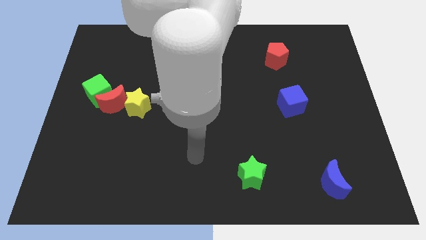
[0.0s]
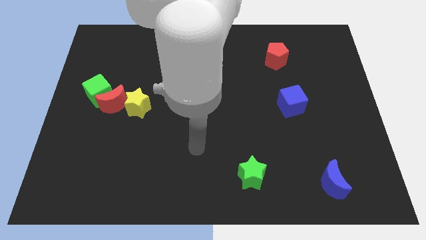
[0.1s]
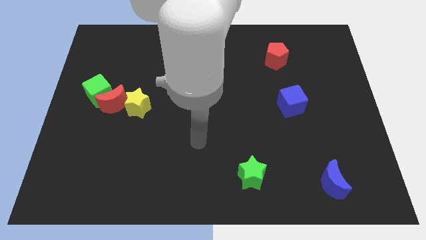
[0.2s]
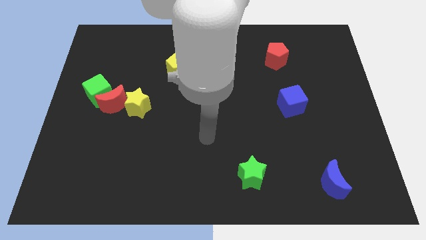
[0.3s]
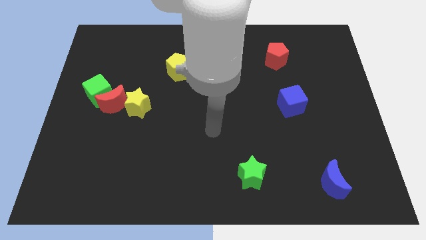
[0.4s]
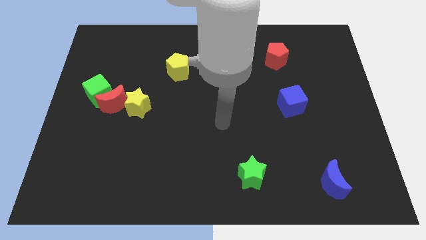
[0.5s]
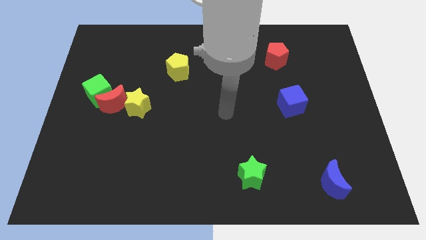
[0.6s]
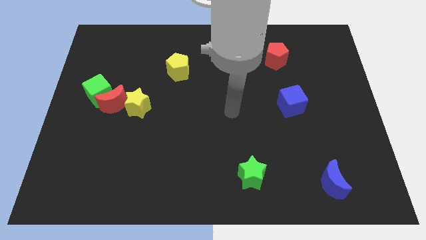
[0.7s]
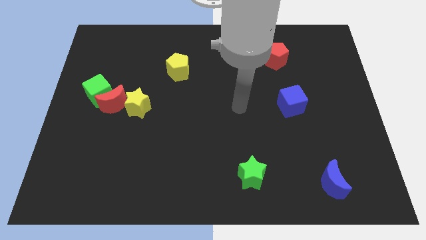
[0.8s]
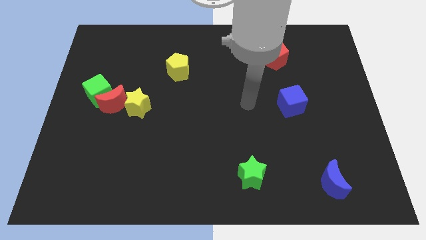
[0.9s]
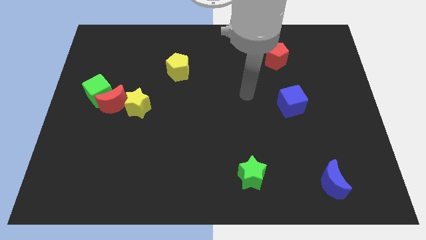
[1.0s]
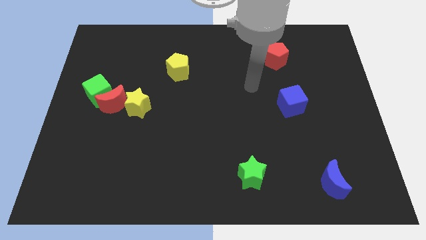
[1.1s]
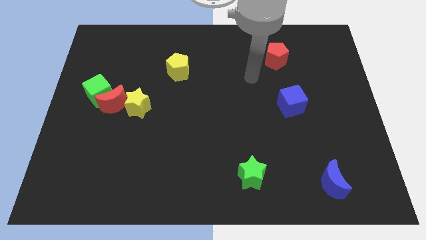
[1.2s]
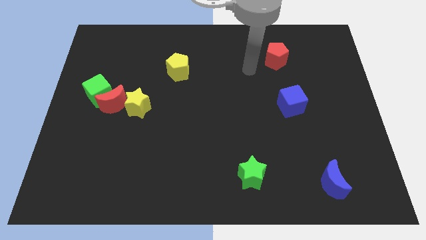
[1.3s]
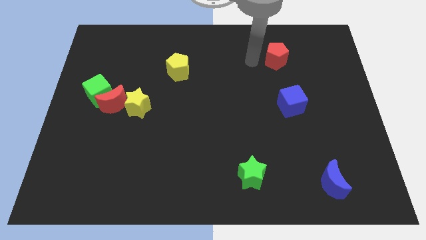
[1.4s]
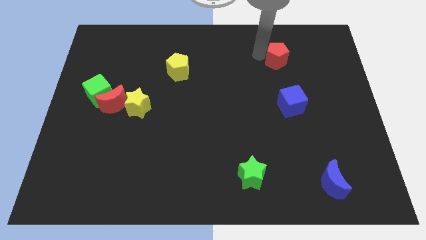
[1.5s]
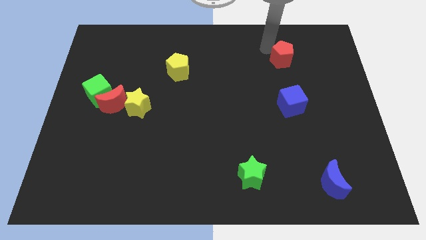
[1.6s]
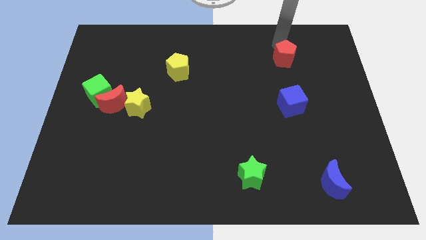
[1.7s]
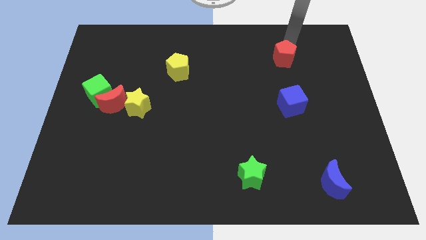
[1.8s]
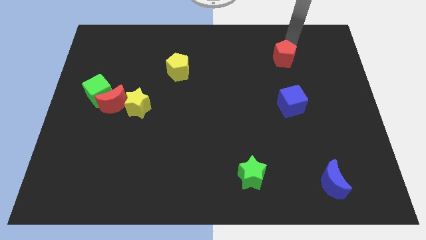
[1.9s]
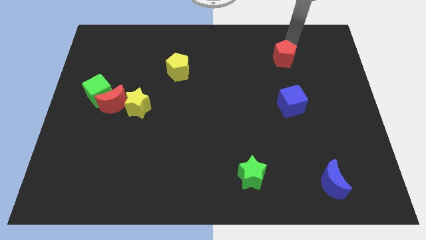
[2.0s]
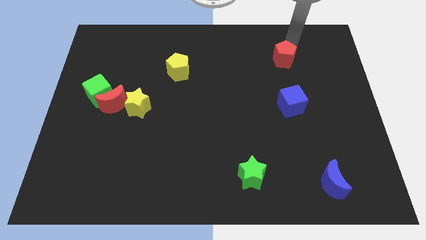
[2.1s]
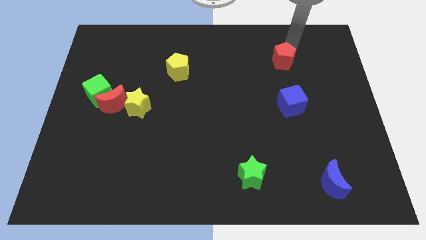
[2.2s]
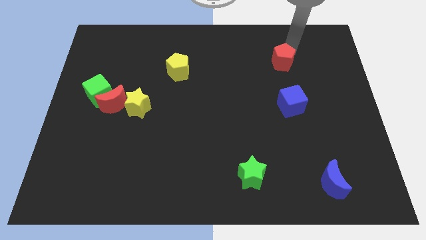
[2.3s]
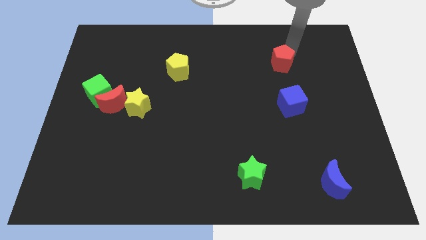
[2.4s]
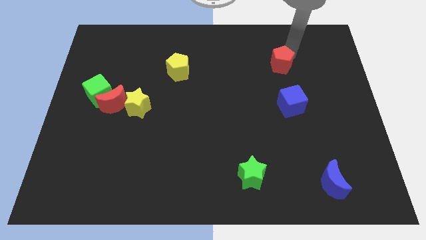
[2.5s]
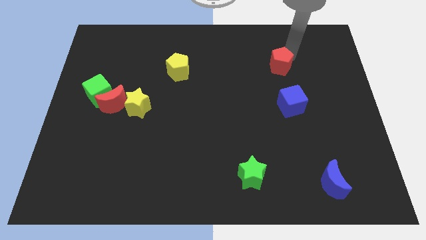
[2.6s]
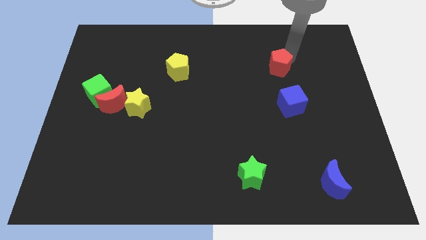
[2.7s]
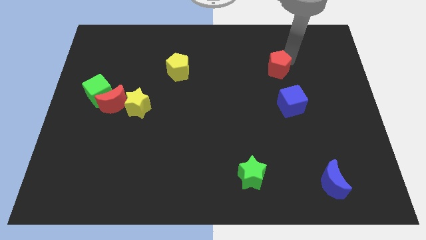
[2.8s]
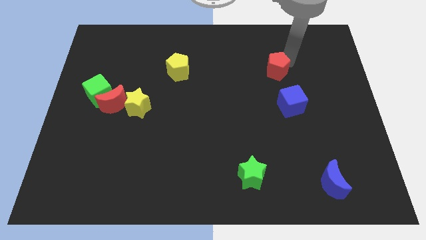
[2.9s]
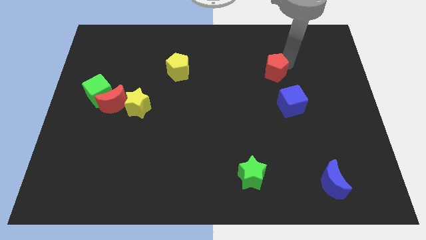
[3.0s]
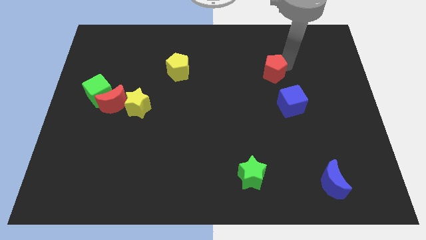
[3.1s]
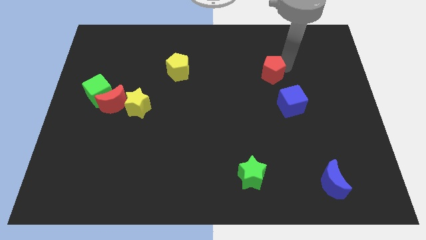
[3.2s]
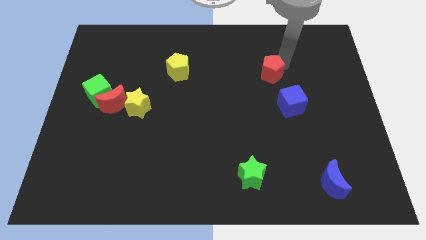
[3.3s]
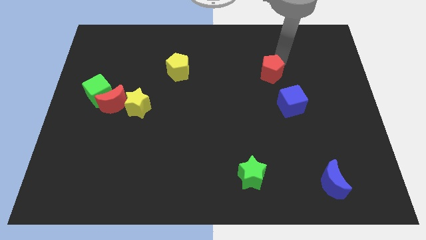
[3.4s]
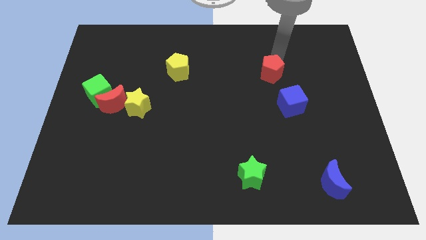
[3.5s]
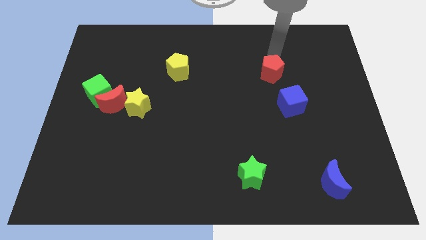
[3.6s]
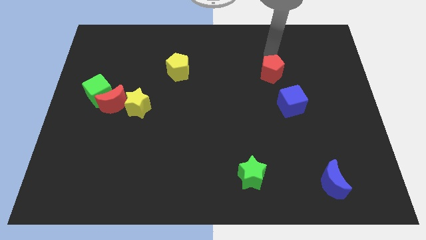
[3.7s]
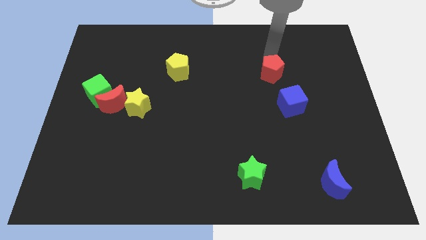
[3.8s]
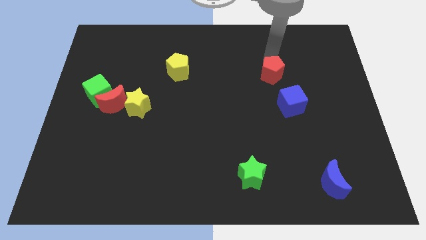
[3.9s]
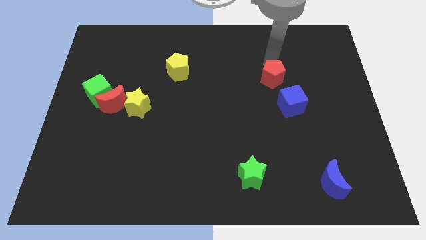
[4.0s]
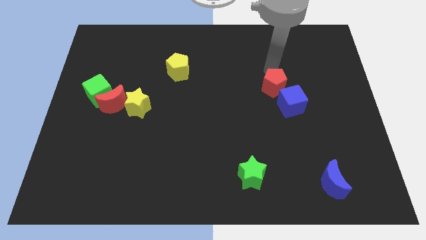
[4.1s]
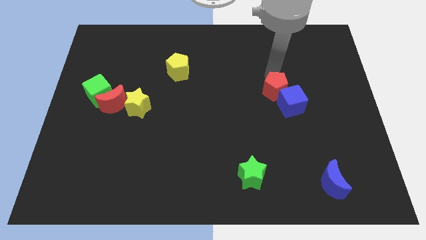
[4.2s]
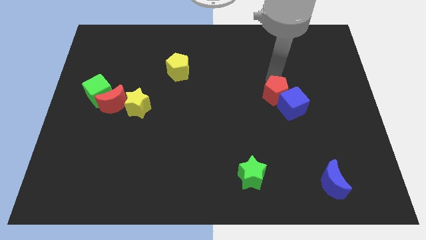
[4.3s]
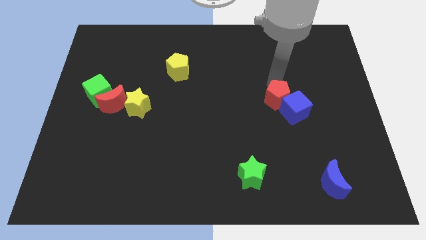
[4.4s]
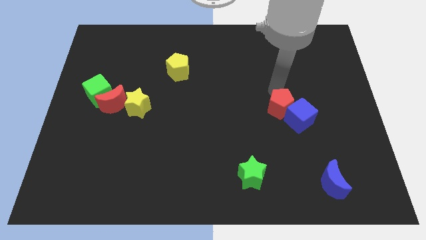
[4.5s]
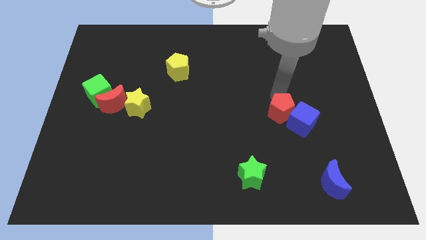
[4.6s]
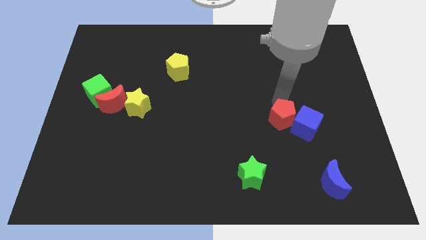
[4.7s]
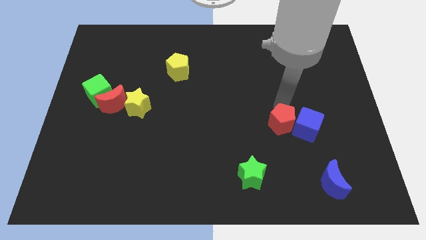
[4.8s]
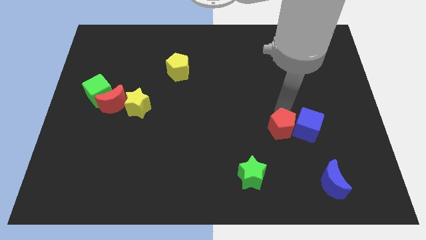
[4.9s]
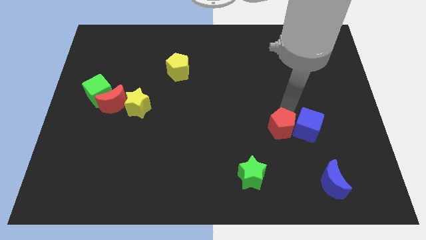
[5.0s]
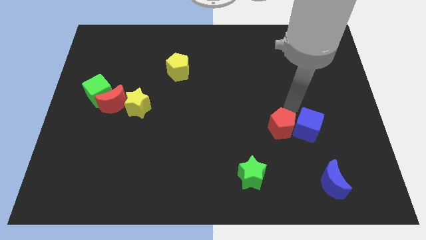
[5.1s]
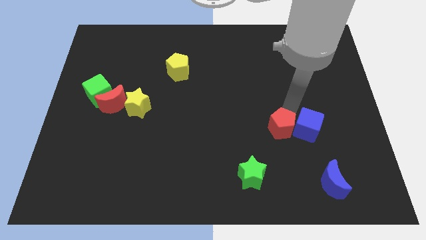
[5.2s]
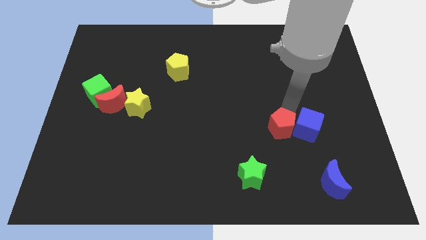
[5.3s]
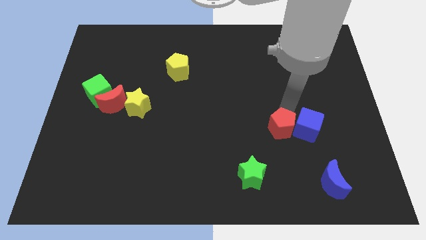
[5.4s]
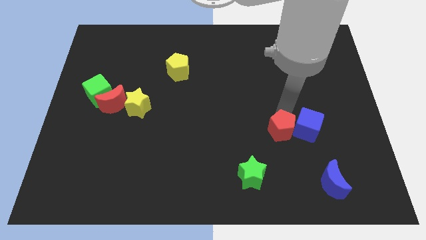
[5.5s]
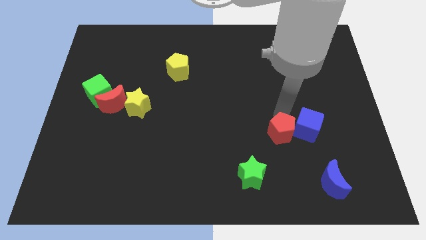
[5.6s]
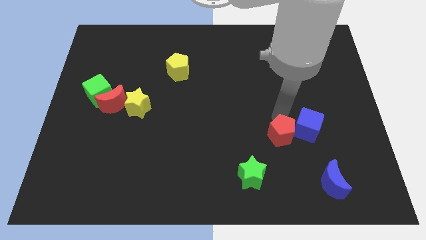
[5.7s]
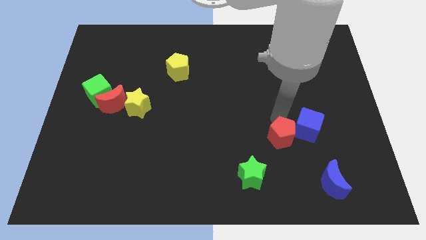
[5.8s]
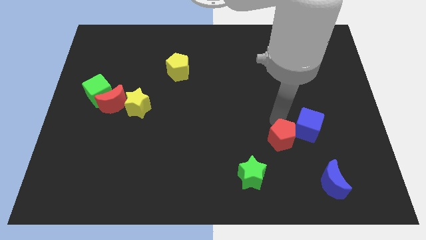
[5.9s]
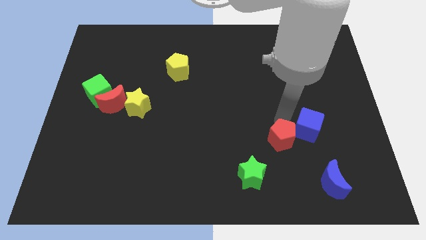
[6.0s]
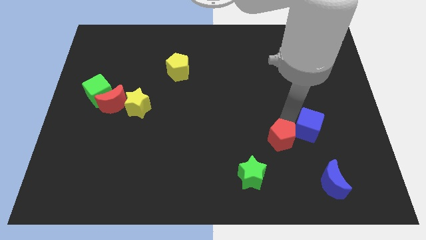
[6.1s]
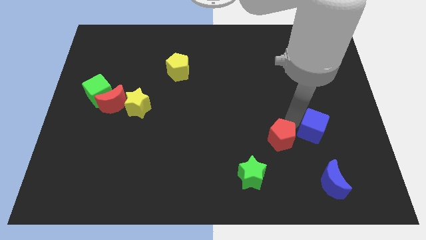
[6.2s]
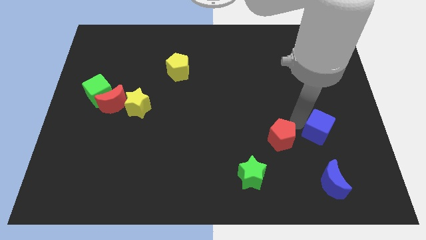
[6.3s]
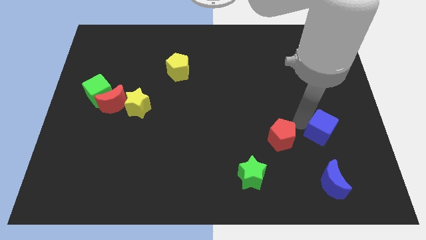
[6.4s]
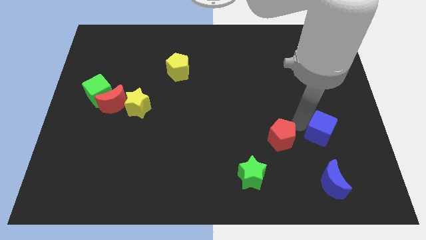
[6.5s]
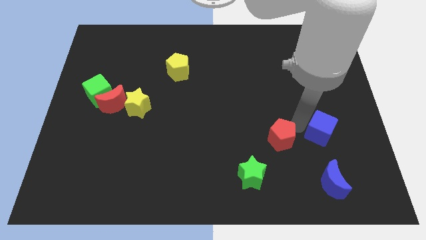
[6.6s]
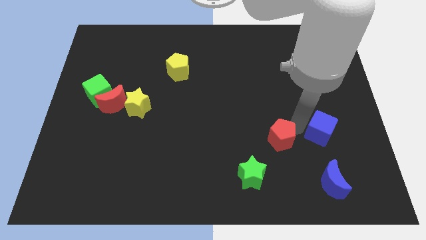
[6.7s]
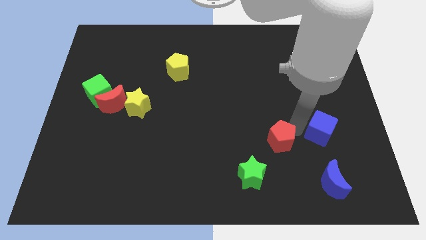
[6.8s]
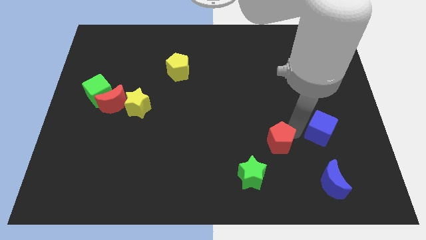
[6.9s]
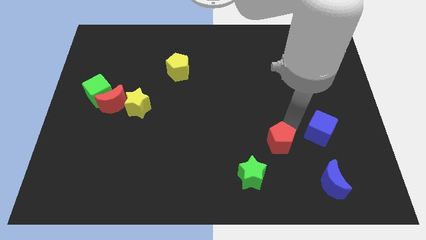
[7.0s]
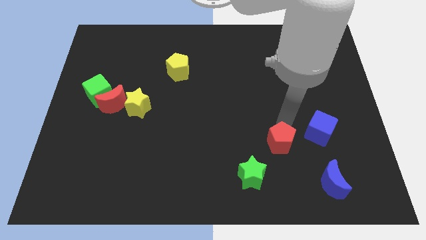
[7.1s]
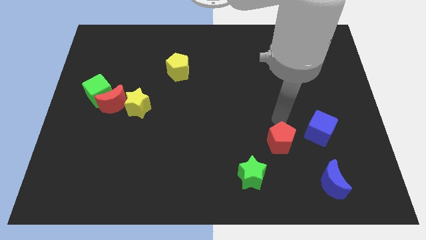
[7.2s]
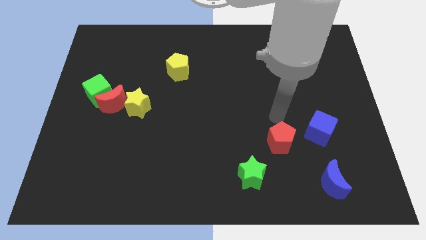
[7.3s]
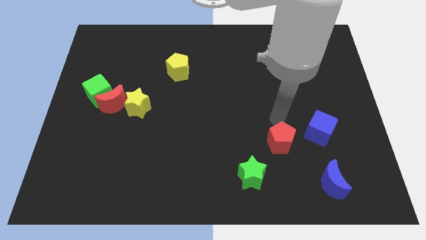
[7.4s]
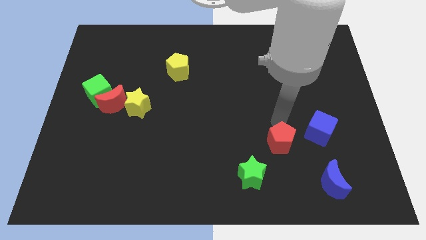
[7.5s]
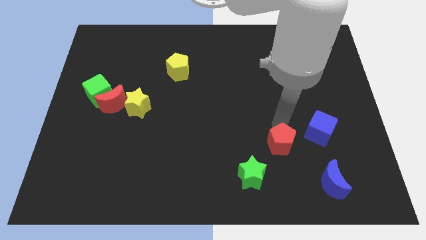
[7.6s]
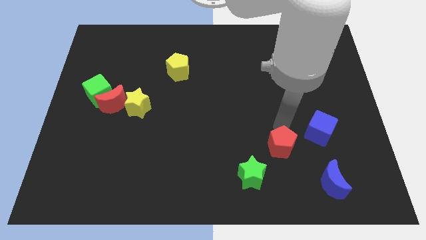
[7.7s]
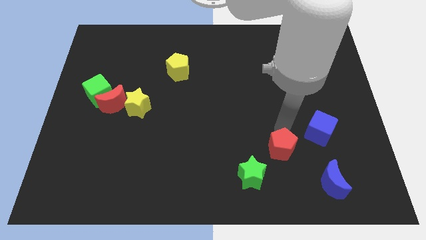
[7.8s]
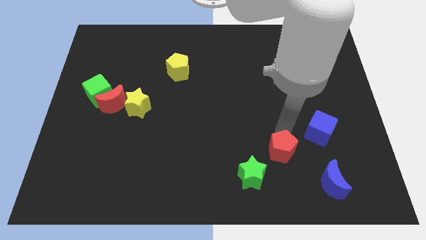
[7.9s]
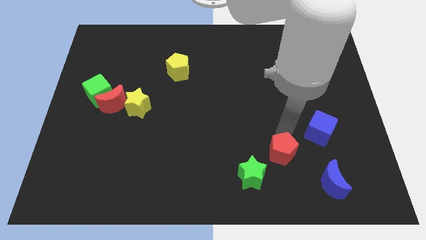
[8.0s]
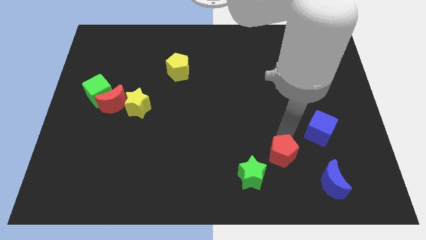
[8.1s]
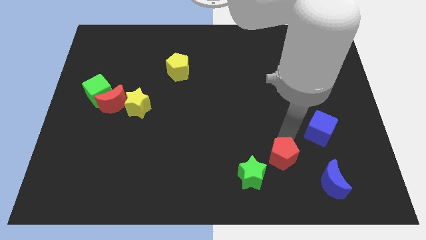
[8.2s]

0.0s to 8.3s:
slide the red pentagon just right of the green star
